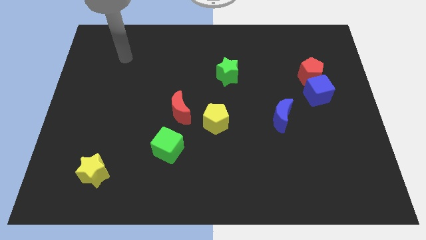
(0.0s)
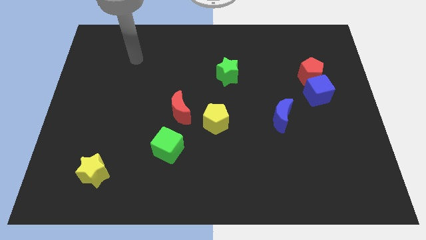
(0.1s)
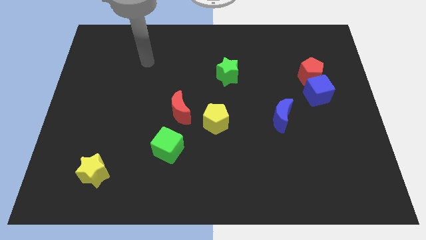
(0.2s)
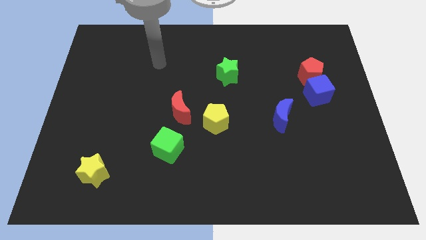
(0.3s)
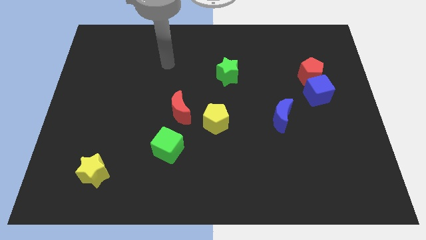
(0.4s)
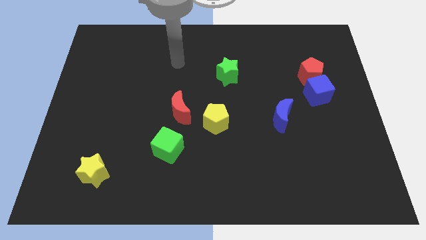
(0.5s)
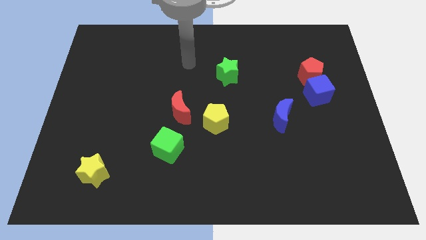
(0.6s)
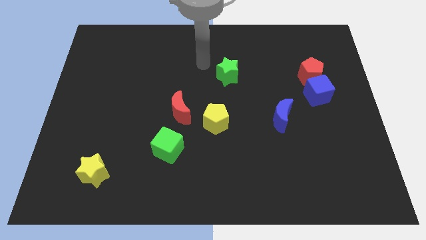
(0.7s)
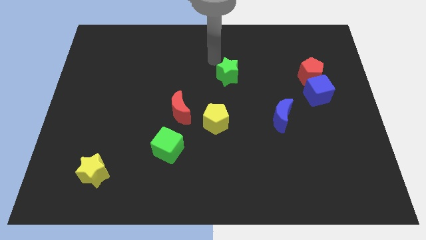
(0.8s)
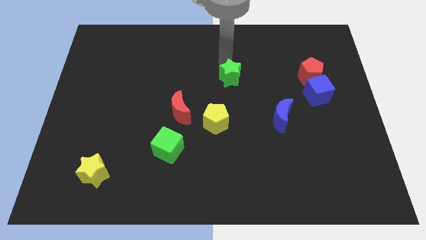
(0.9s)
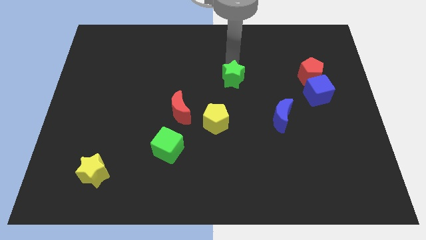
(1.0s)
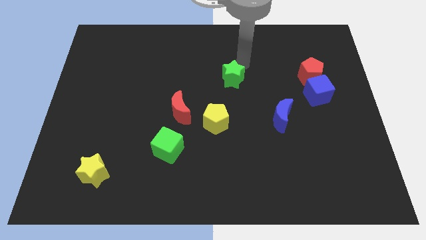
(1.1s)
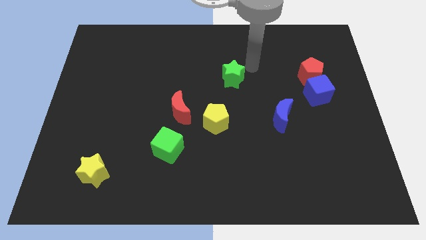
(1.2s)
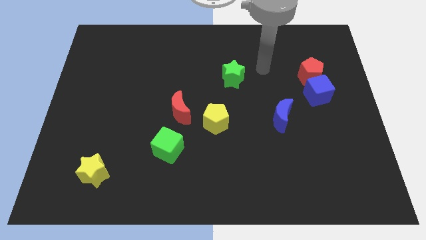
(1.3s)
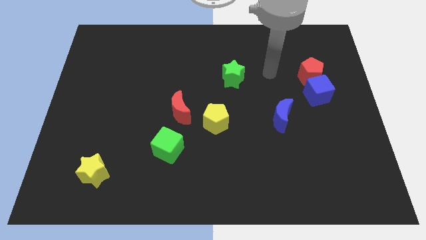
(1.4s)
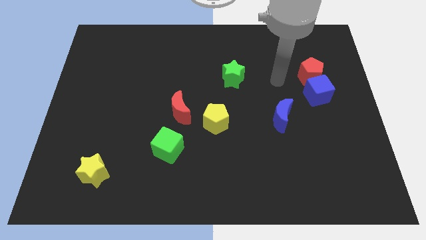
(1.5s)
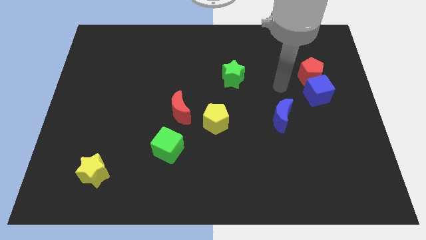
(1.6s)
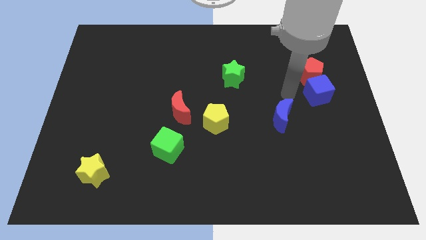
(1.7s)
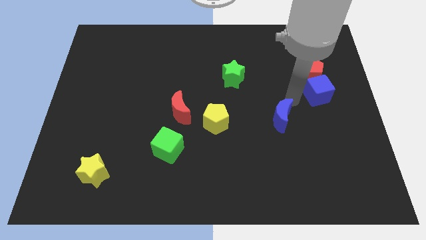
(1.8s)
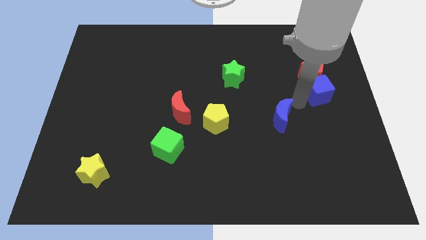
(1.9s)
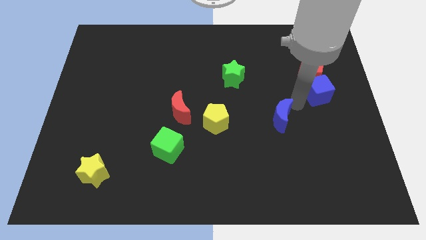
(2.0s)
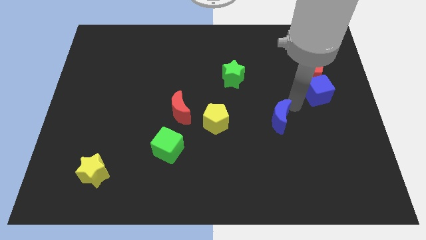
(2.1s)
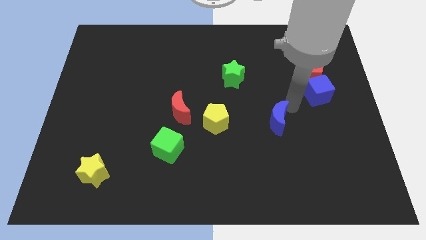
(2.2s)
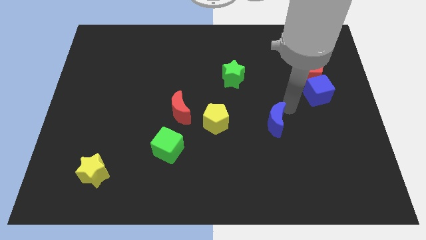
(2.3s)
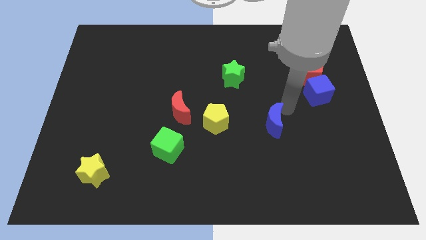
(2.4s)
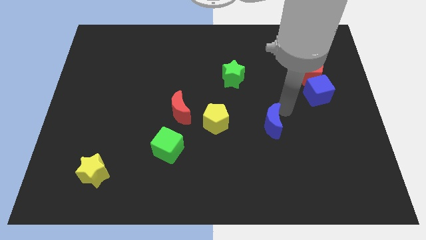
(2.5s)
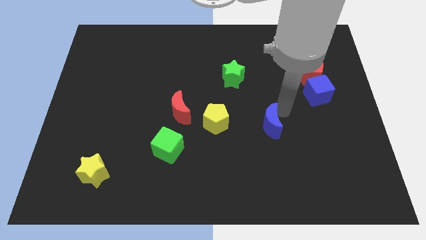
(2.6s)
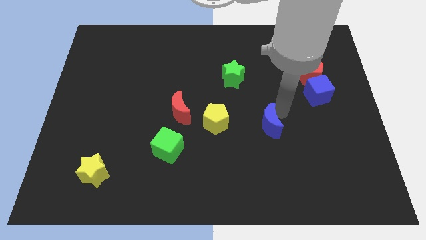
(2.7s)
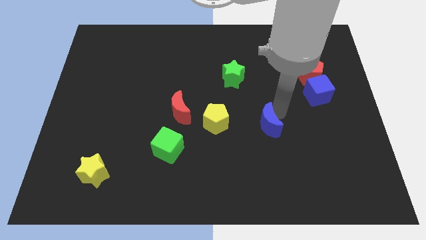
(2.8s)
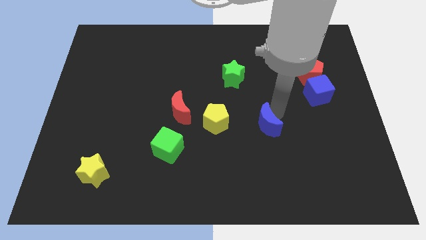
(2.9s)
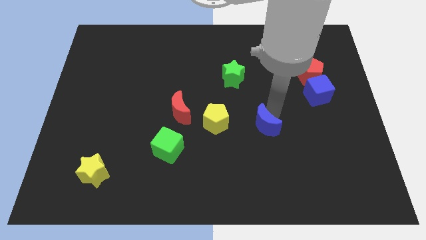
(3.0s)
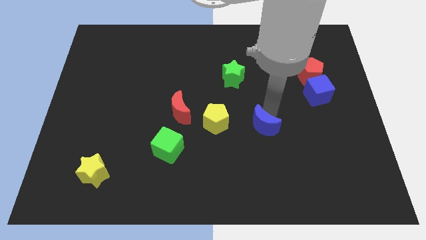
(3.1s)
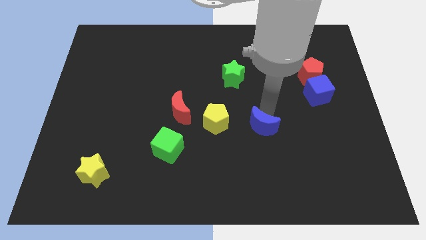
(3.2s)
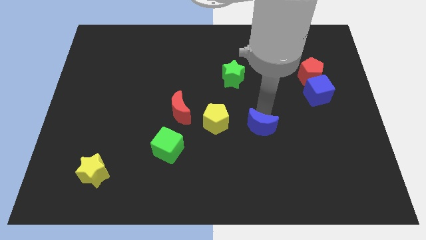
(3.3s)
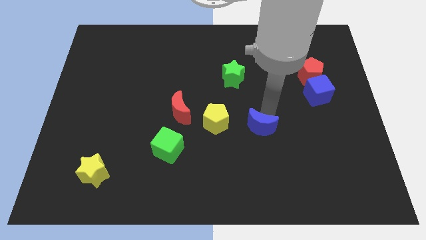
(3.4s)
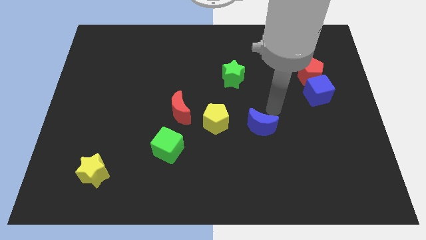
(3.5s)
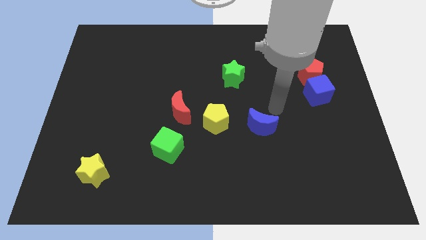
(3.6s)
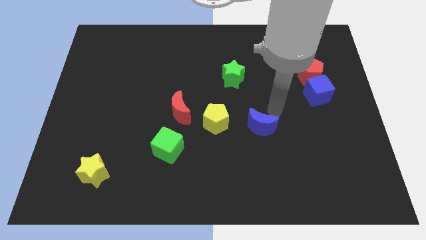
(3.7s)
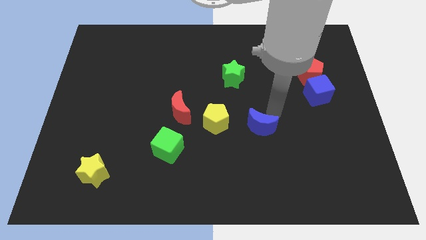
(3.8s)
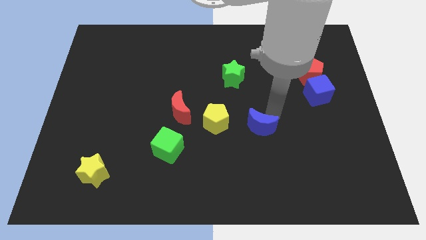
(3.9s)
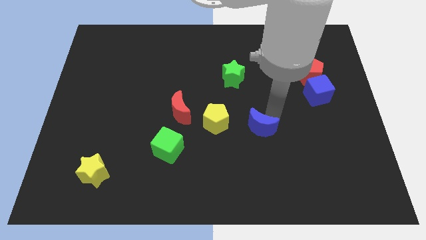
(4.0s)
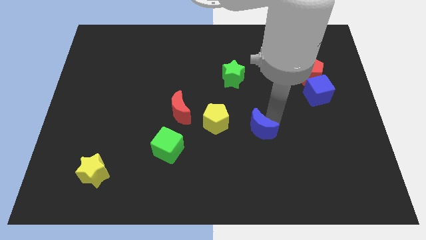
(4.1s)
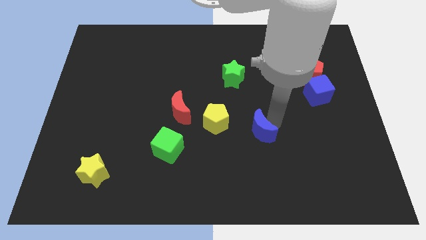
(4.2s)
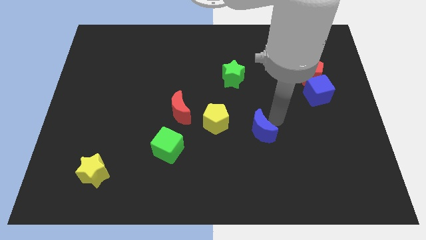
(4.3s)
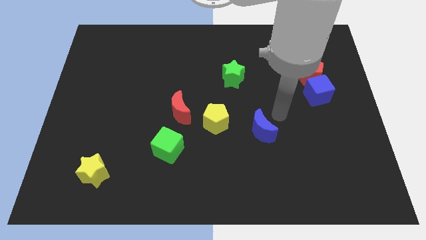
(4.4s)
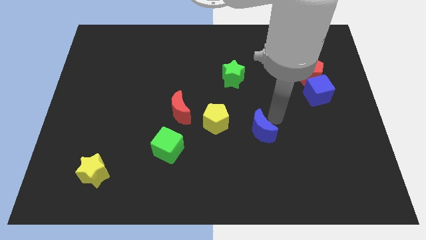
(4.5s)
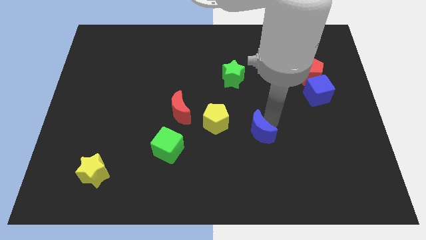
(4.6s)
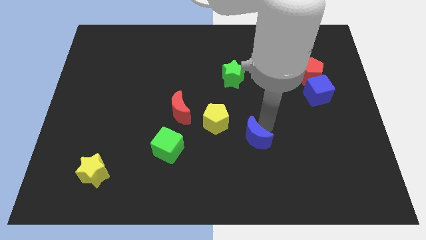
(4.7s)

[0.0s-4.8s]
slide the blue moon a little downwards and then left

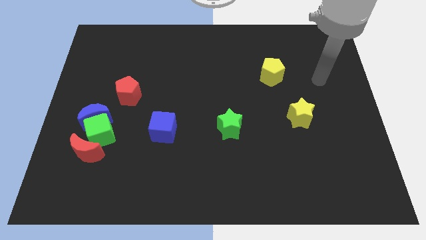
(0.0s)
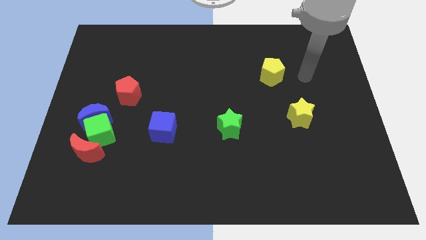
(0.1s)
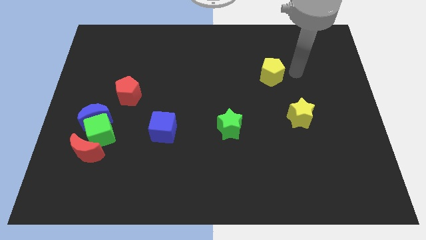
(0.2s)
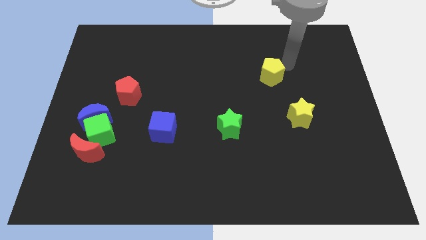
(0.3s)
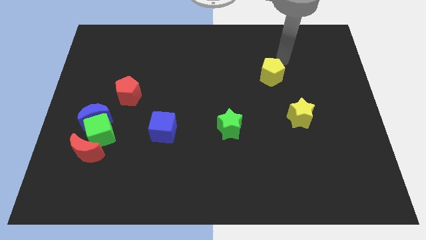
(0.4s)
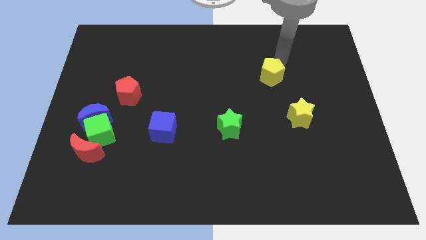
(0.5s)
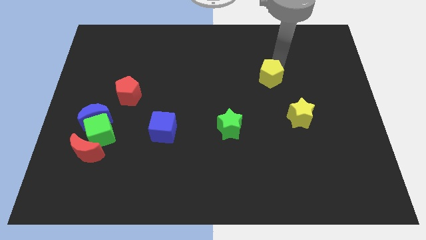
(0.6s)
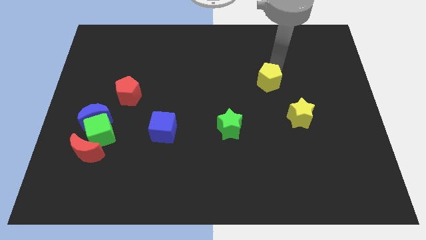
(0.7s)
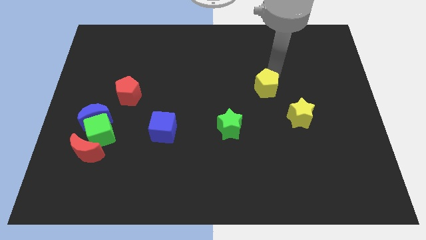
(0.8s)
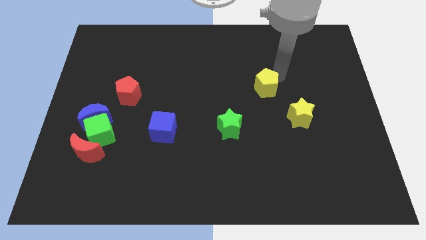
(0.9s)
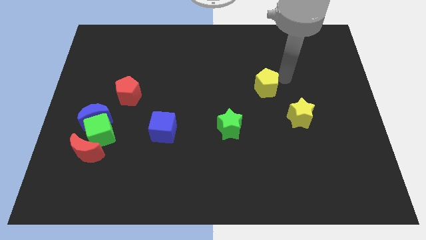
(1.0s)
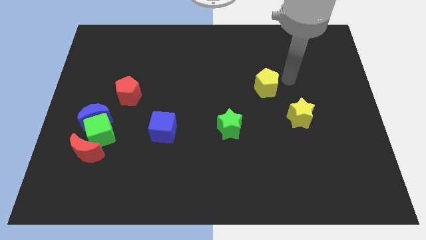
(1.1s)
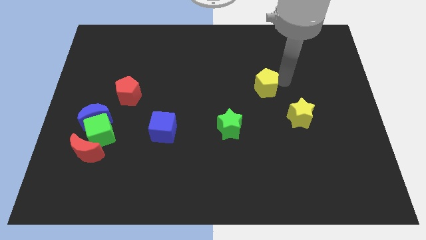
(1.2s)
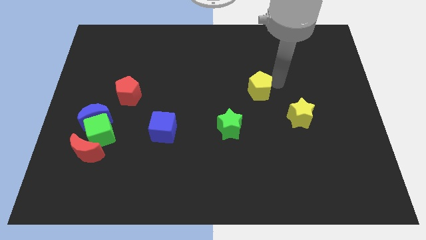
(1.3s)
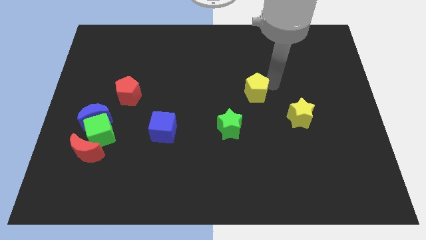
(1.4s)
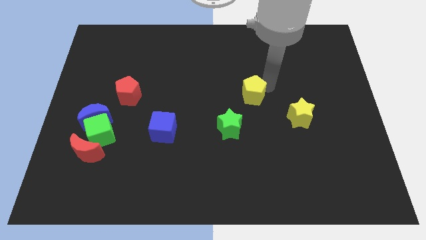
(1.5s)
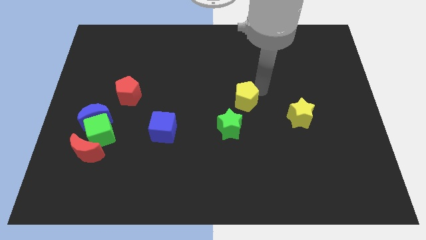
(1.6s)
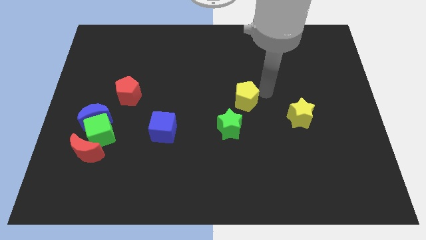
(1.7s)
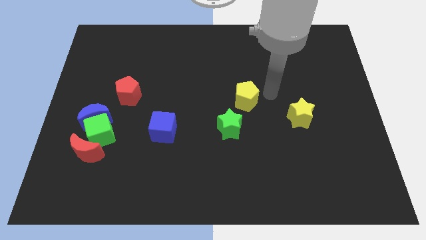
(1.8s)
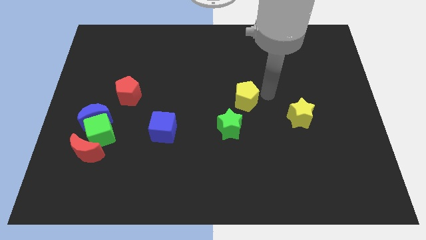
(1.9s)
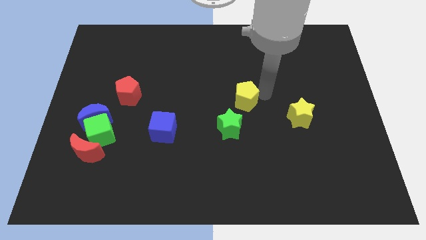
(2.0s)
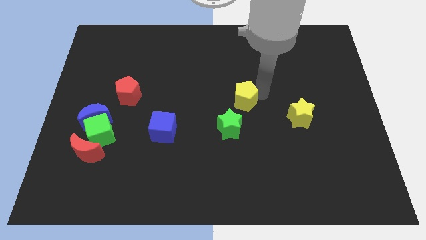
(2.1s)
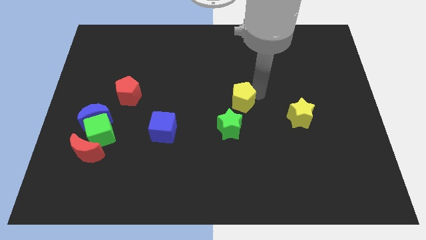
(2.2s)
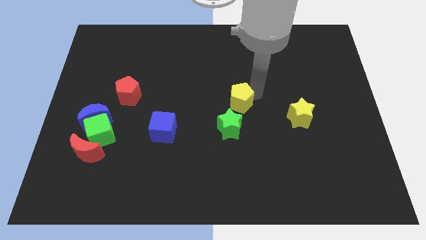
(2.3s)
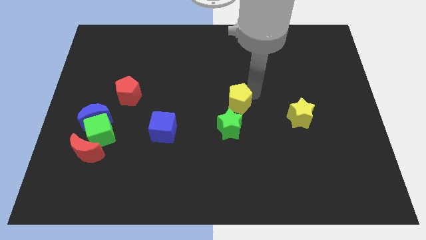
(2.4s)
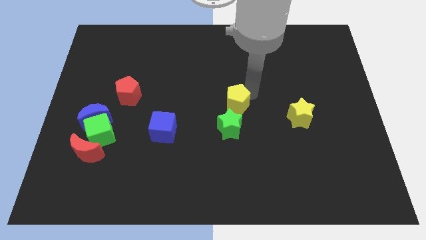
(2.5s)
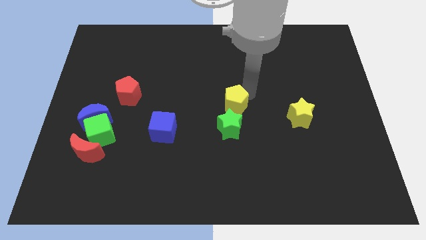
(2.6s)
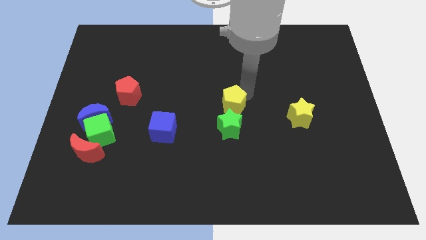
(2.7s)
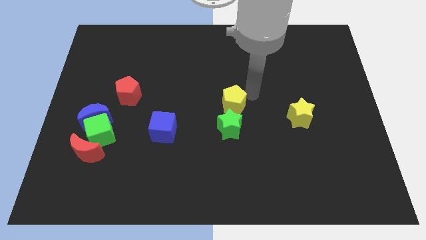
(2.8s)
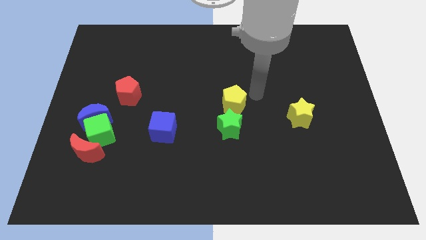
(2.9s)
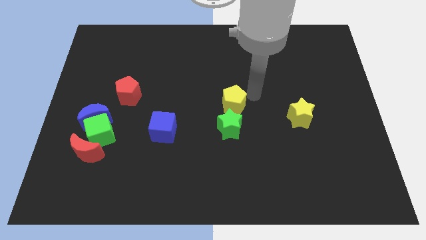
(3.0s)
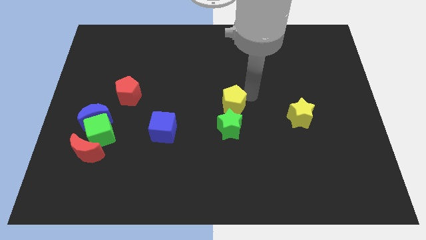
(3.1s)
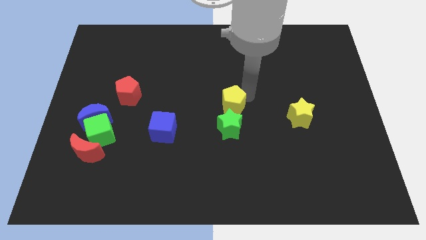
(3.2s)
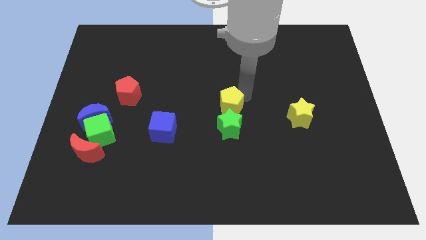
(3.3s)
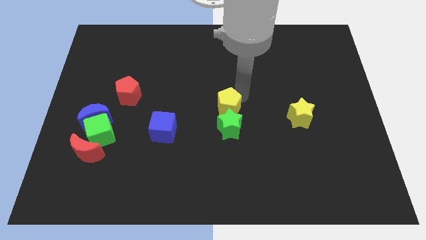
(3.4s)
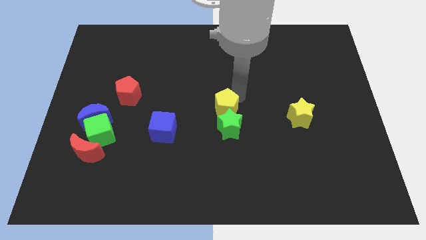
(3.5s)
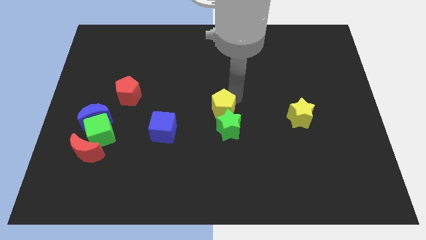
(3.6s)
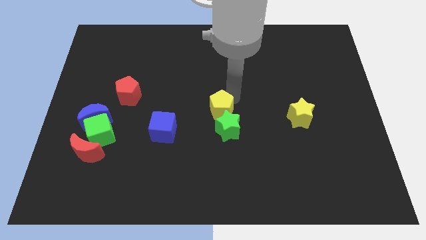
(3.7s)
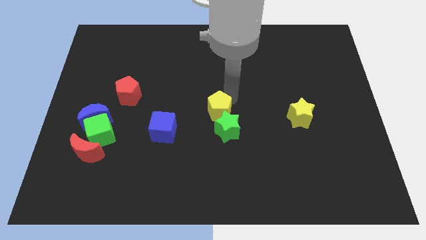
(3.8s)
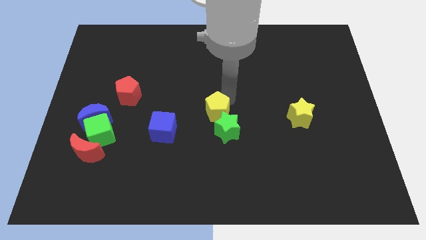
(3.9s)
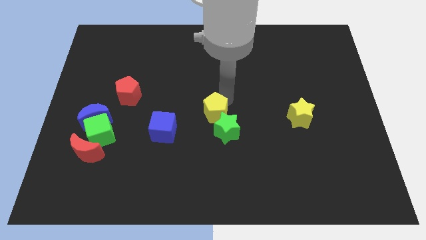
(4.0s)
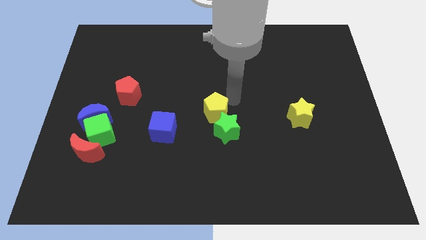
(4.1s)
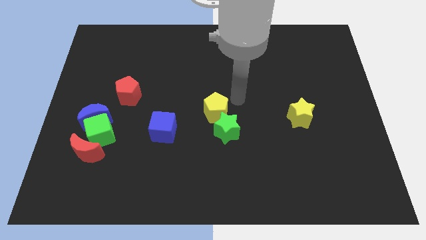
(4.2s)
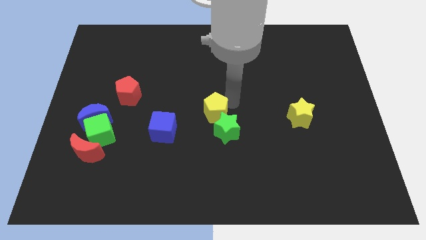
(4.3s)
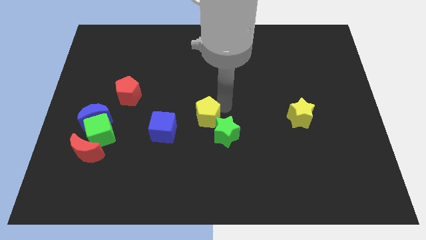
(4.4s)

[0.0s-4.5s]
push the yellow pentagon downwards and left diagonally
